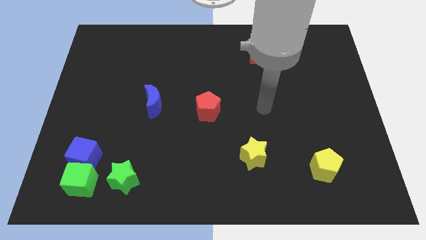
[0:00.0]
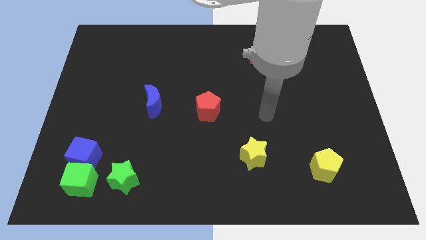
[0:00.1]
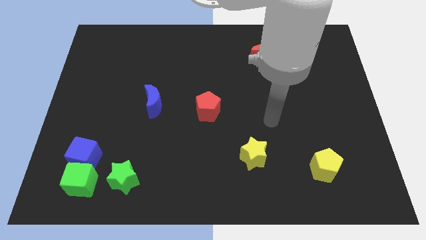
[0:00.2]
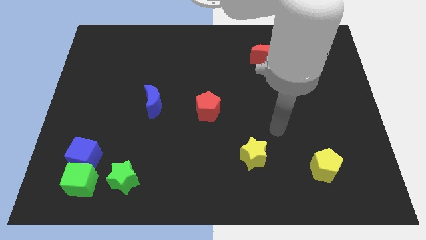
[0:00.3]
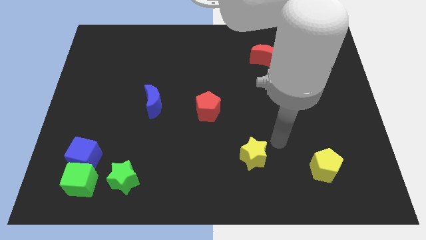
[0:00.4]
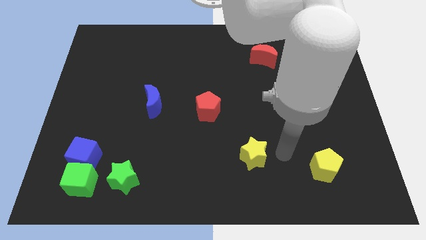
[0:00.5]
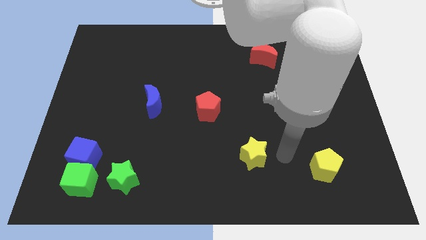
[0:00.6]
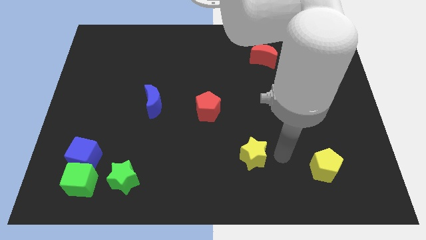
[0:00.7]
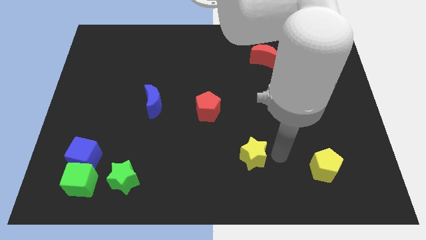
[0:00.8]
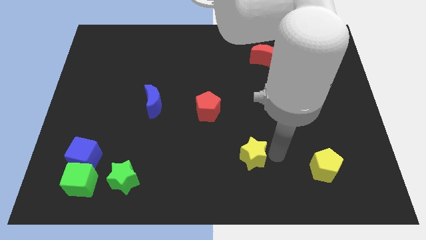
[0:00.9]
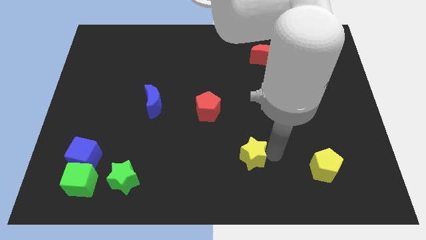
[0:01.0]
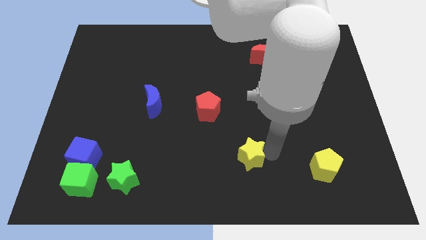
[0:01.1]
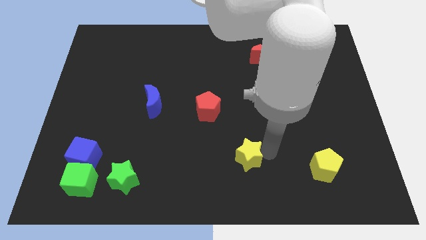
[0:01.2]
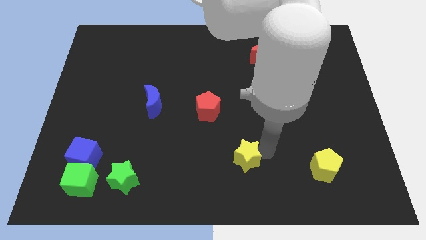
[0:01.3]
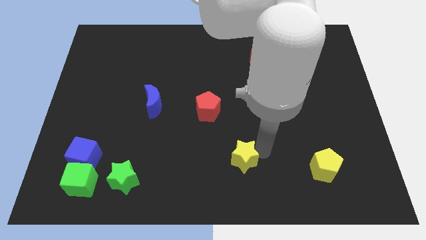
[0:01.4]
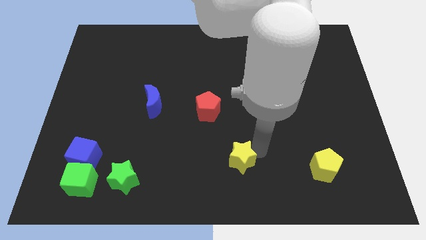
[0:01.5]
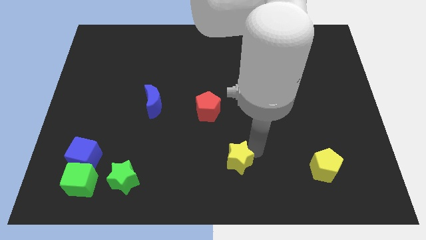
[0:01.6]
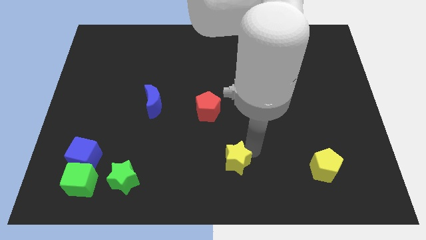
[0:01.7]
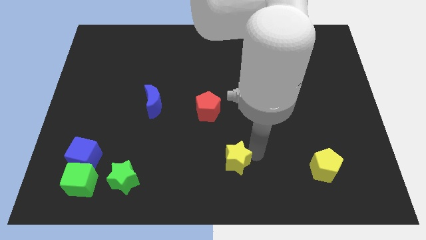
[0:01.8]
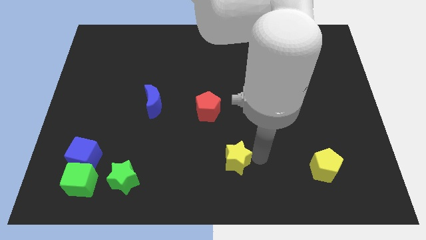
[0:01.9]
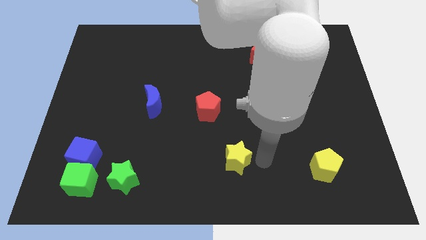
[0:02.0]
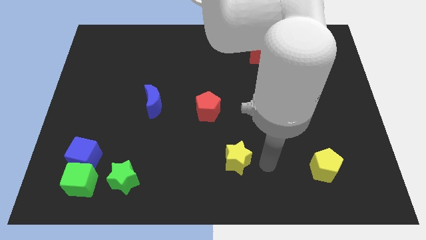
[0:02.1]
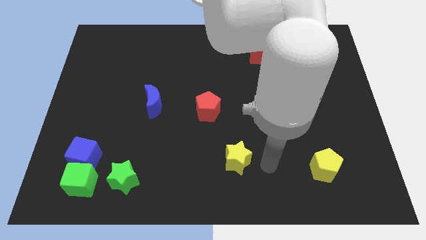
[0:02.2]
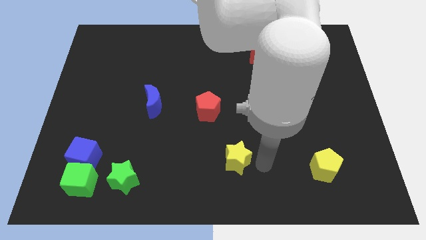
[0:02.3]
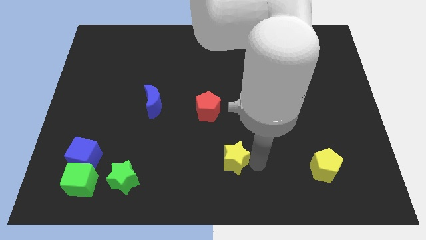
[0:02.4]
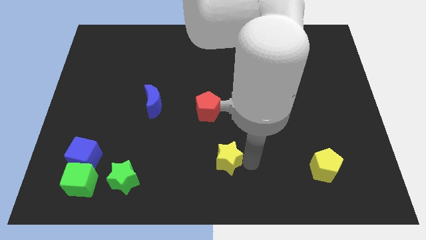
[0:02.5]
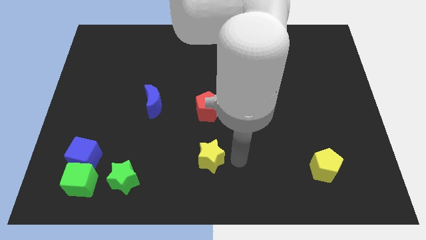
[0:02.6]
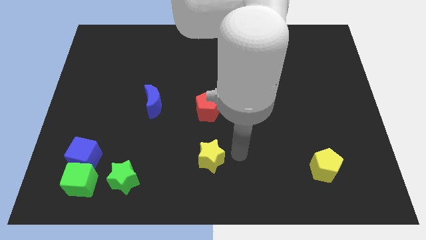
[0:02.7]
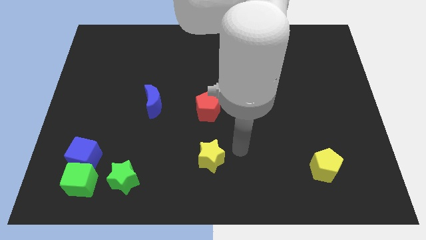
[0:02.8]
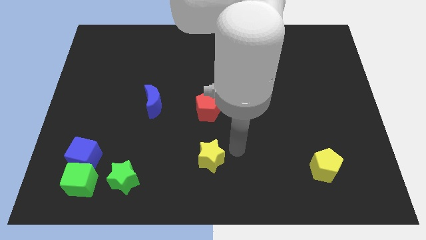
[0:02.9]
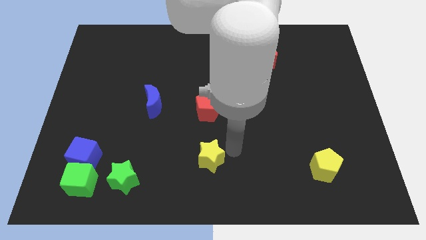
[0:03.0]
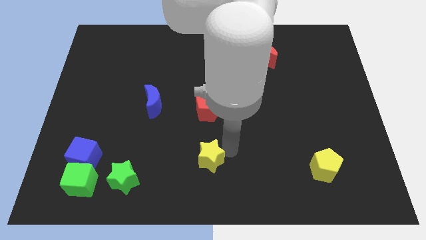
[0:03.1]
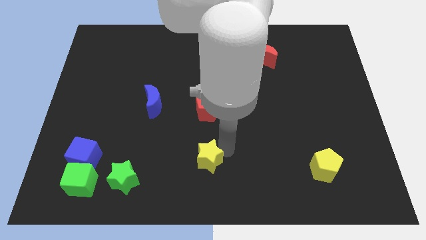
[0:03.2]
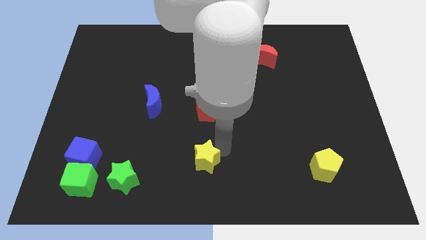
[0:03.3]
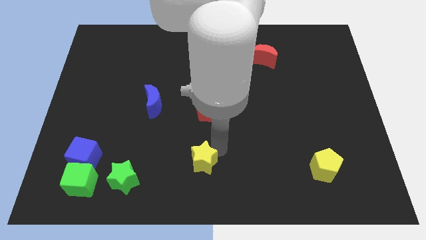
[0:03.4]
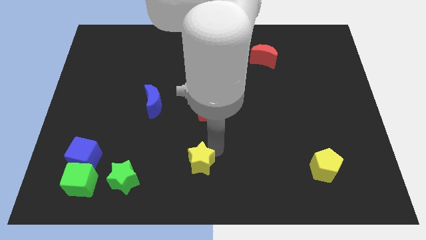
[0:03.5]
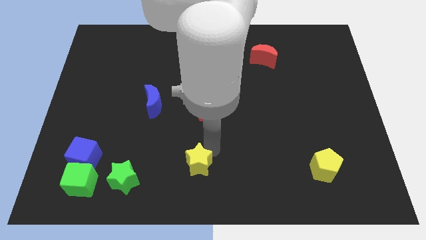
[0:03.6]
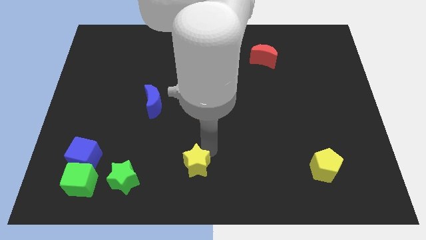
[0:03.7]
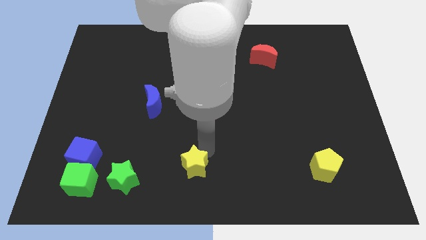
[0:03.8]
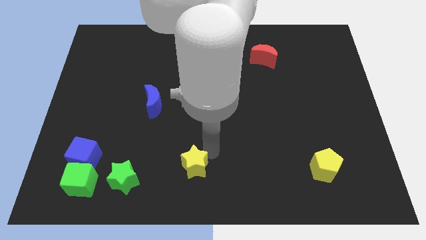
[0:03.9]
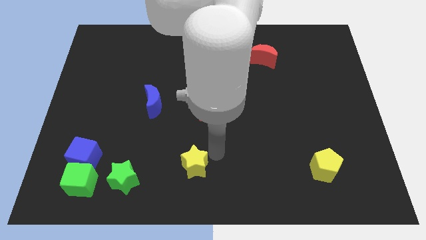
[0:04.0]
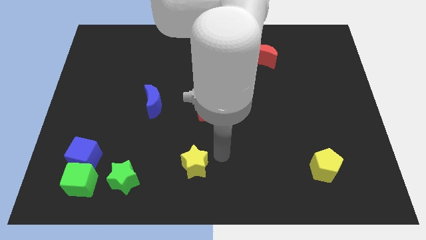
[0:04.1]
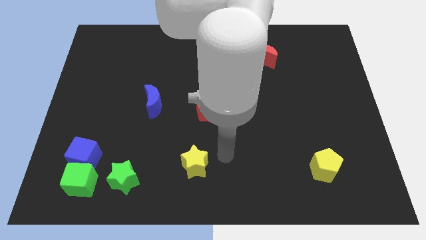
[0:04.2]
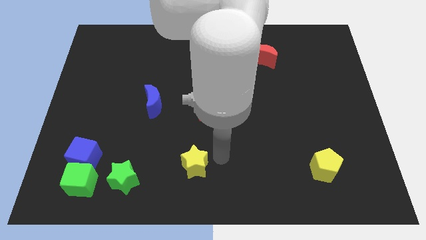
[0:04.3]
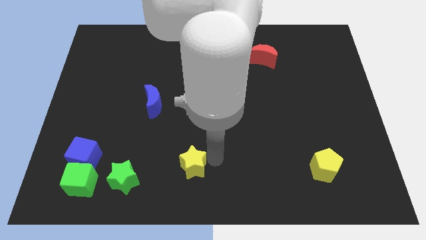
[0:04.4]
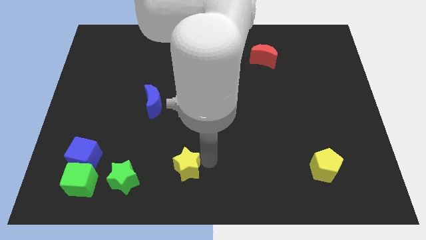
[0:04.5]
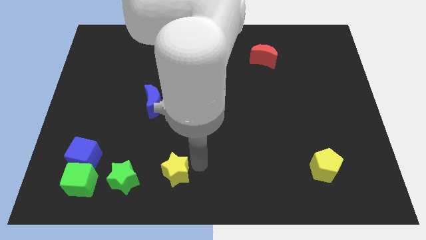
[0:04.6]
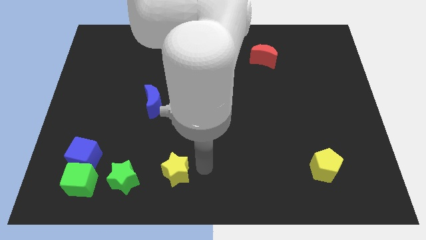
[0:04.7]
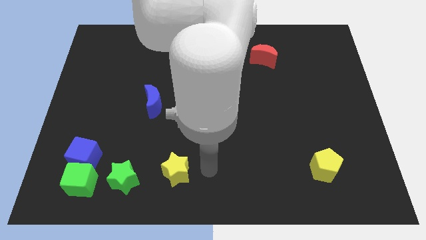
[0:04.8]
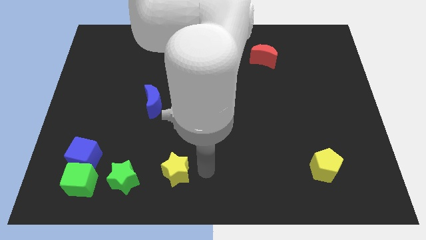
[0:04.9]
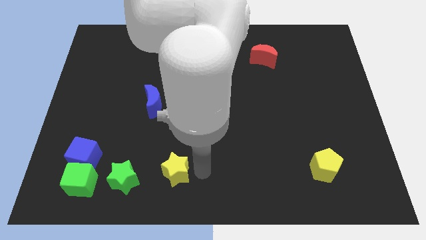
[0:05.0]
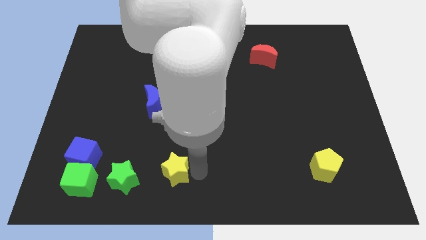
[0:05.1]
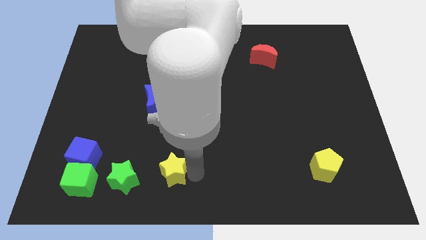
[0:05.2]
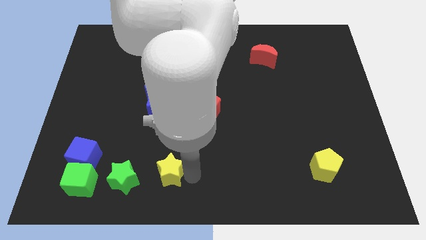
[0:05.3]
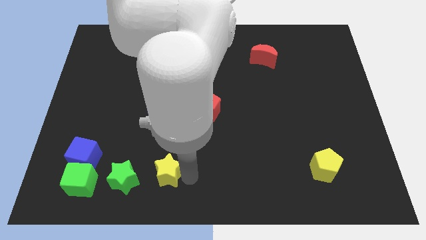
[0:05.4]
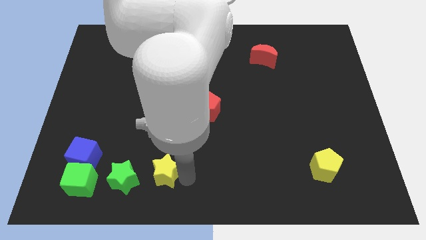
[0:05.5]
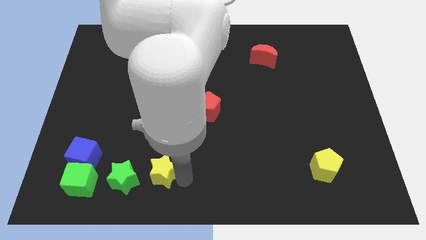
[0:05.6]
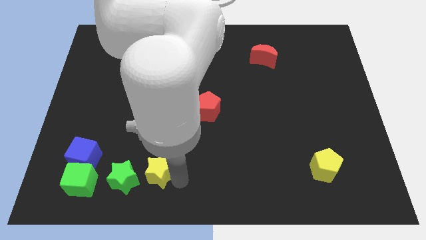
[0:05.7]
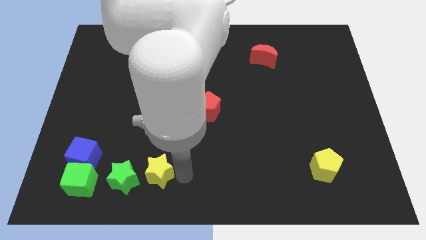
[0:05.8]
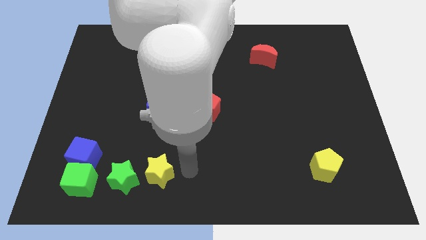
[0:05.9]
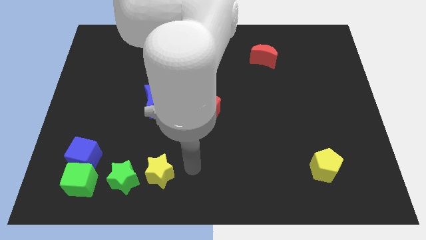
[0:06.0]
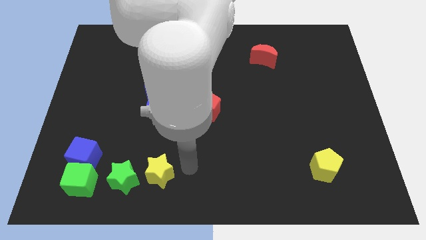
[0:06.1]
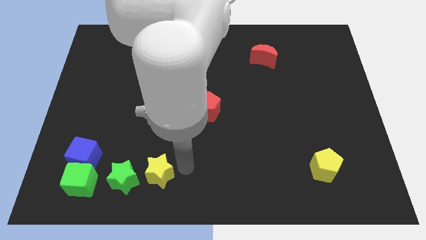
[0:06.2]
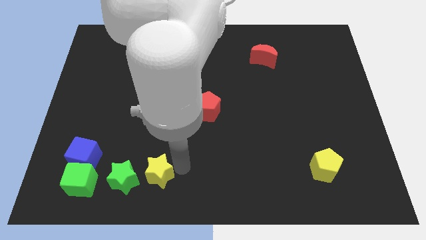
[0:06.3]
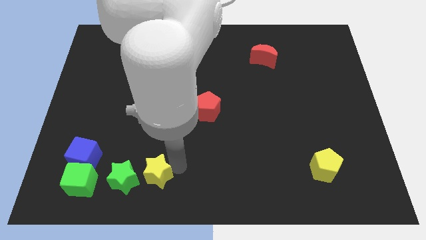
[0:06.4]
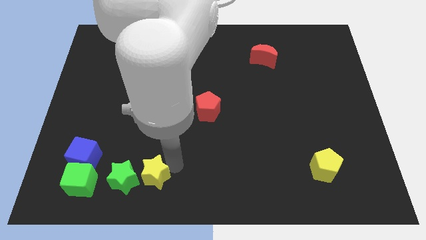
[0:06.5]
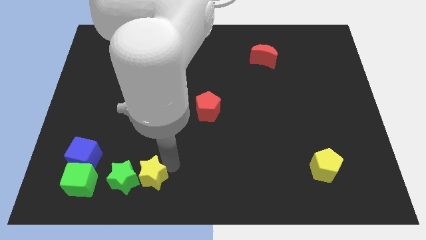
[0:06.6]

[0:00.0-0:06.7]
put the yellow star close to the green star

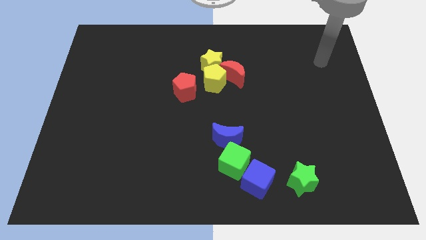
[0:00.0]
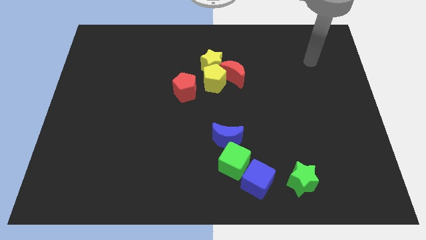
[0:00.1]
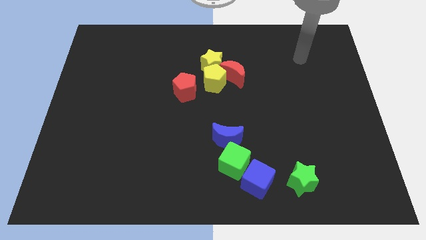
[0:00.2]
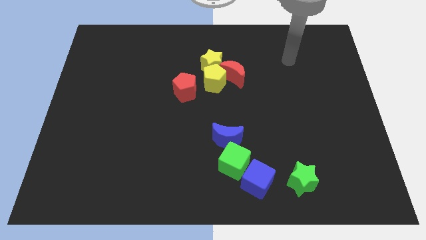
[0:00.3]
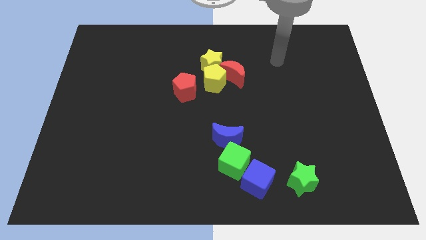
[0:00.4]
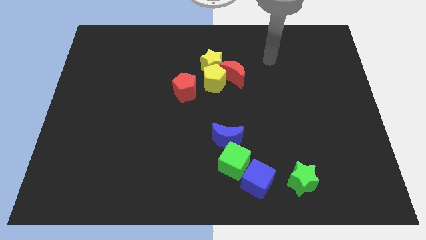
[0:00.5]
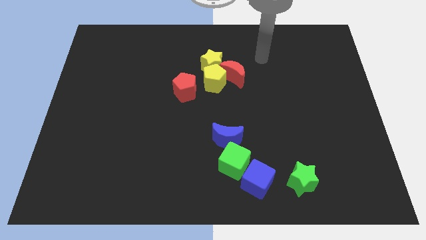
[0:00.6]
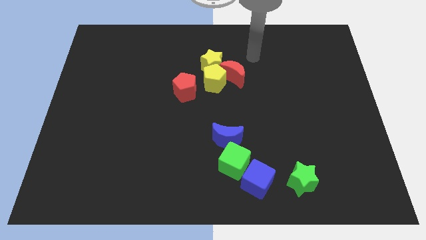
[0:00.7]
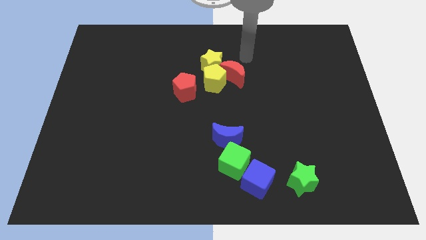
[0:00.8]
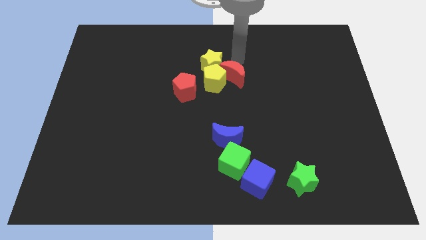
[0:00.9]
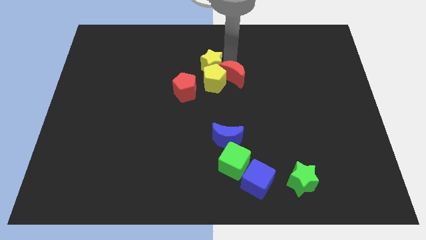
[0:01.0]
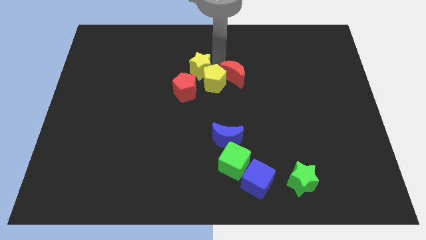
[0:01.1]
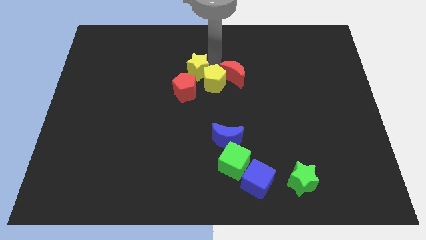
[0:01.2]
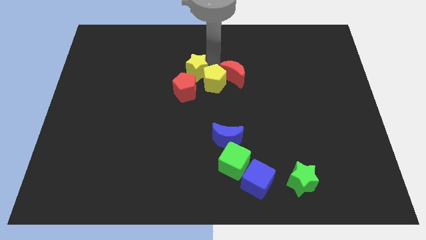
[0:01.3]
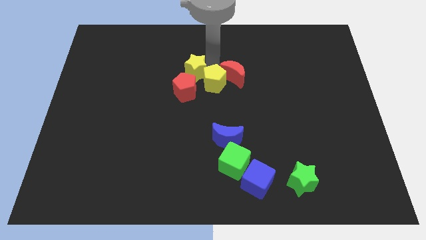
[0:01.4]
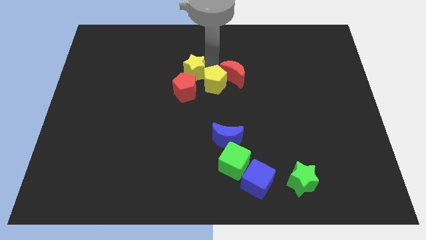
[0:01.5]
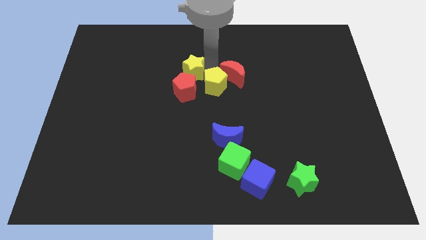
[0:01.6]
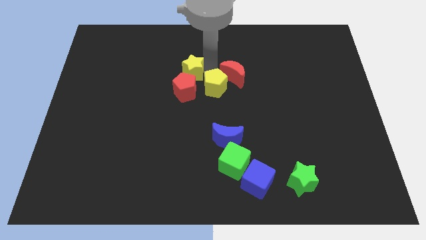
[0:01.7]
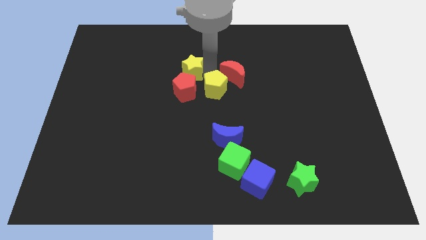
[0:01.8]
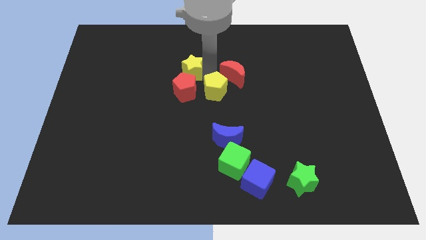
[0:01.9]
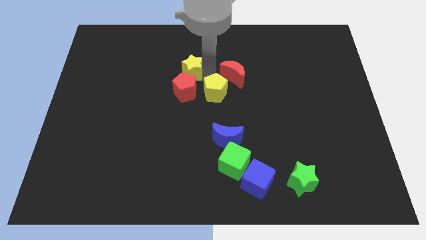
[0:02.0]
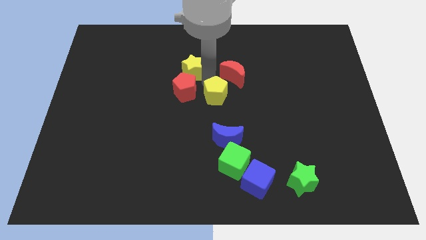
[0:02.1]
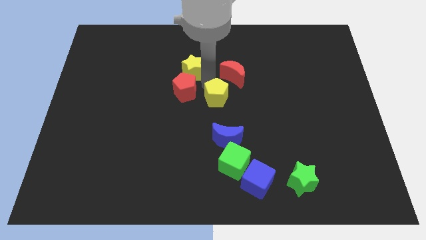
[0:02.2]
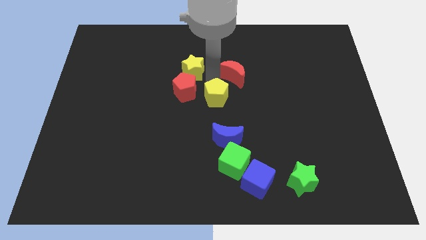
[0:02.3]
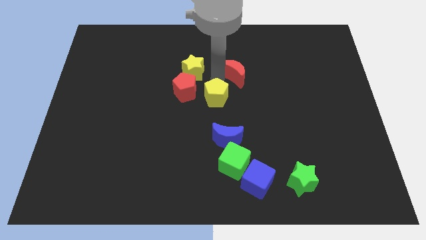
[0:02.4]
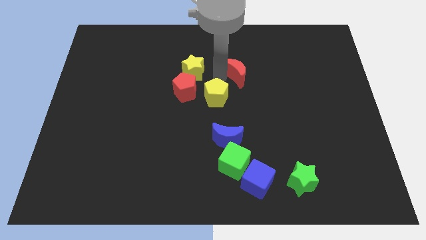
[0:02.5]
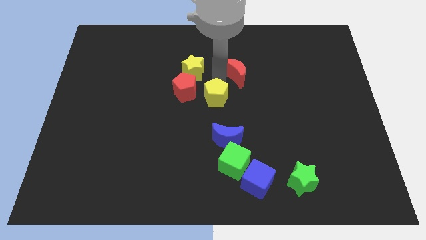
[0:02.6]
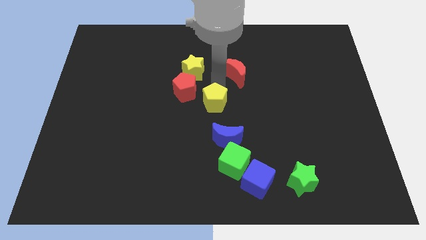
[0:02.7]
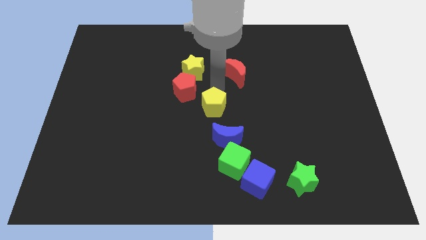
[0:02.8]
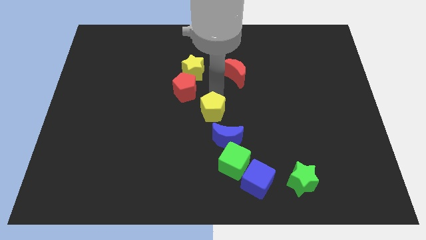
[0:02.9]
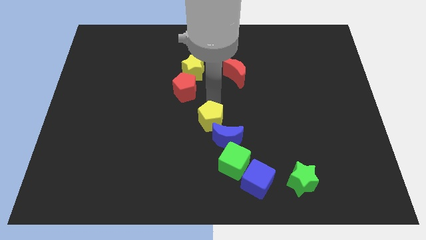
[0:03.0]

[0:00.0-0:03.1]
slide the yellow pentagon close to the blue moon
